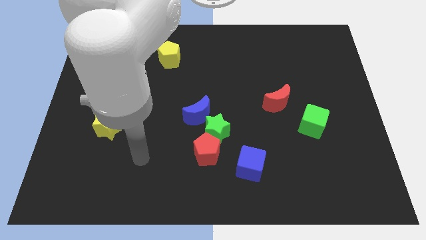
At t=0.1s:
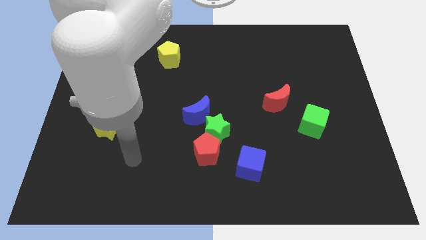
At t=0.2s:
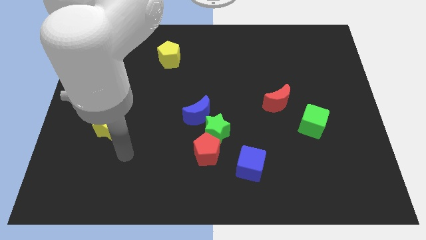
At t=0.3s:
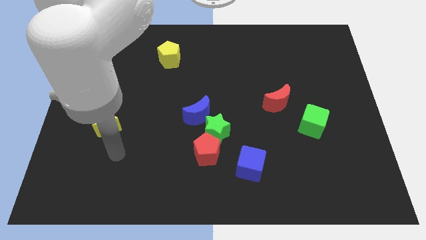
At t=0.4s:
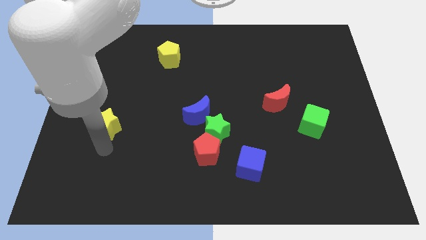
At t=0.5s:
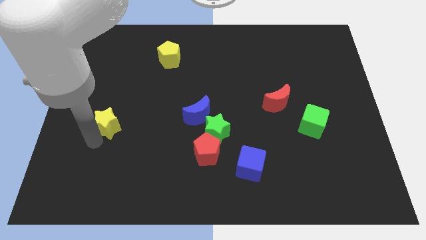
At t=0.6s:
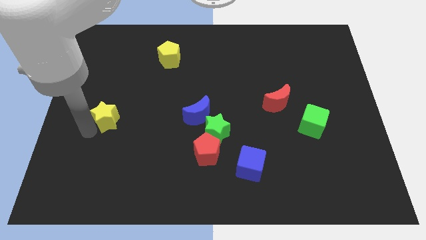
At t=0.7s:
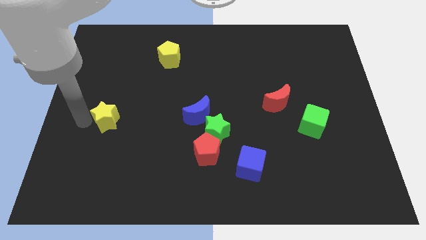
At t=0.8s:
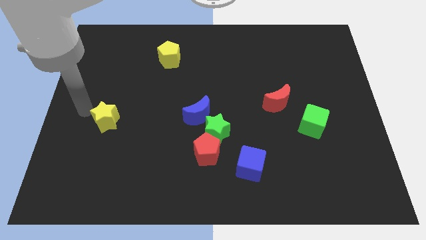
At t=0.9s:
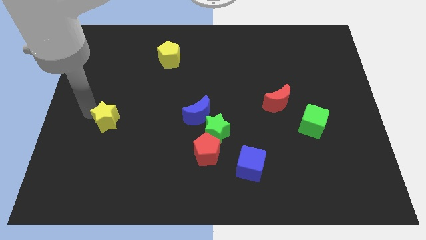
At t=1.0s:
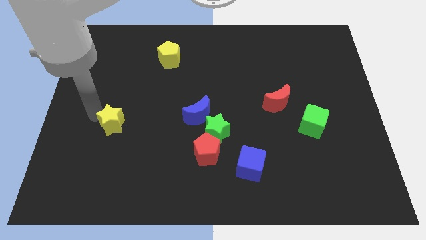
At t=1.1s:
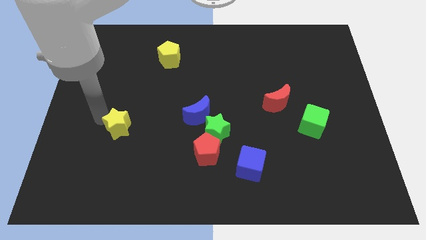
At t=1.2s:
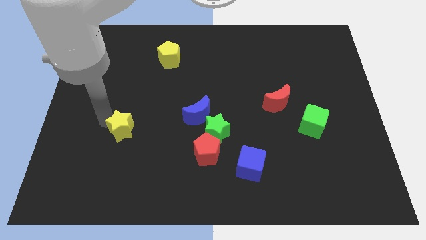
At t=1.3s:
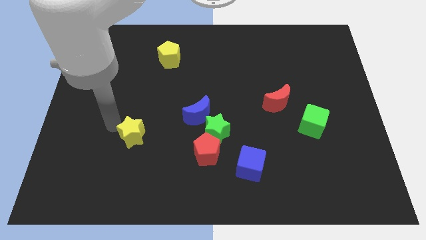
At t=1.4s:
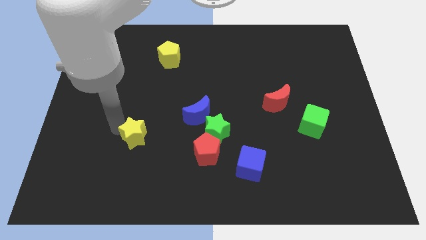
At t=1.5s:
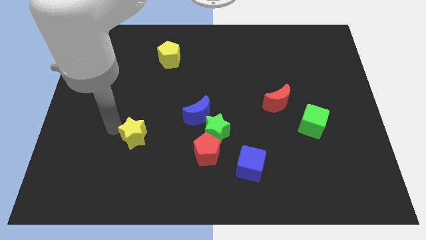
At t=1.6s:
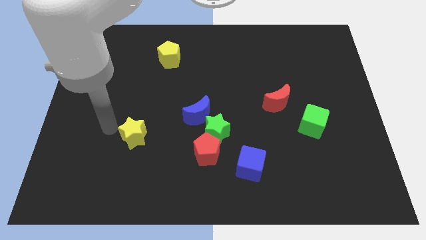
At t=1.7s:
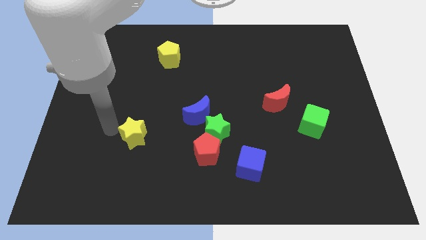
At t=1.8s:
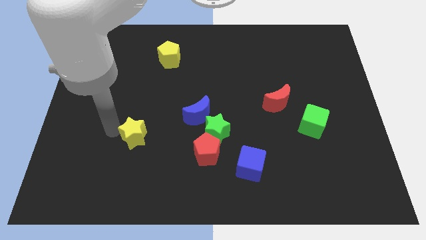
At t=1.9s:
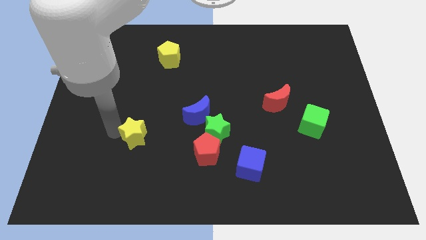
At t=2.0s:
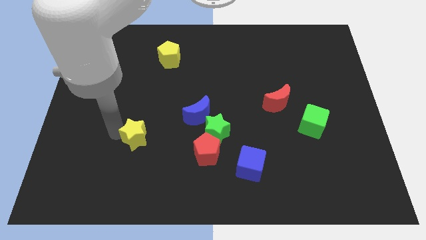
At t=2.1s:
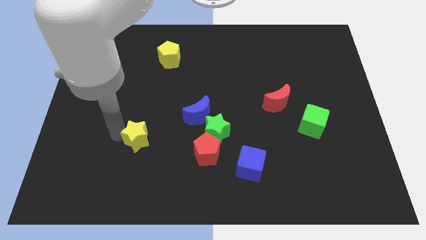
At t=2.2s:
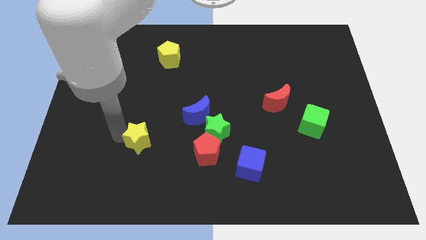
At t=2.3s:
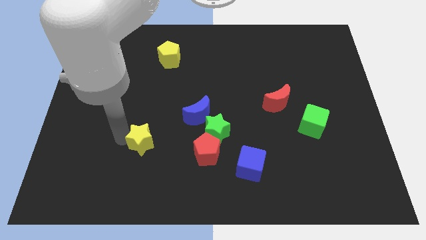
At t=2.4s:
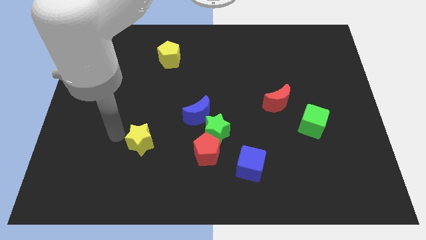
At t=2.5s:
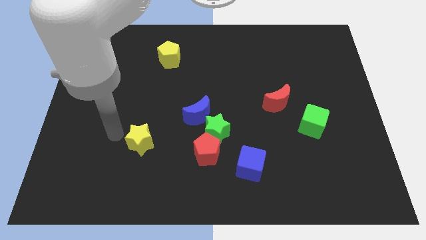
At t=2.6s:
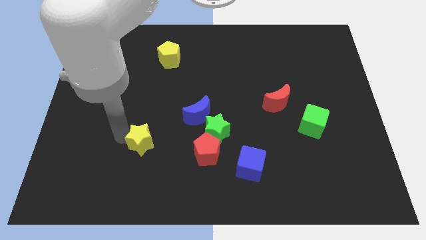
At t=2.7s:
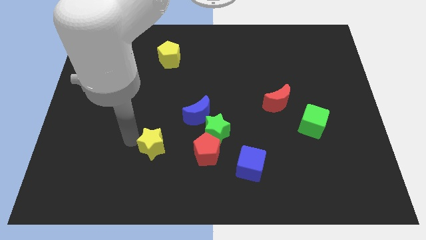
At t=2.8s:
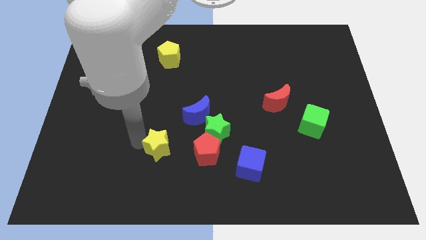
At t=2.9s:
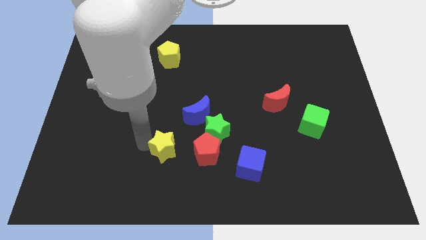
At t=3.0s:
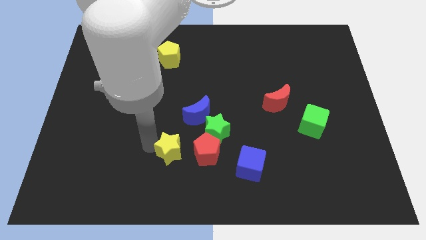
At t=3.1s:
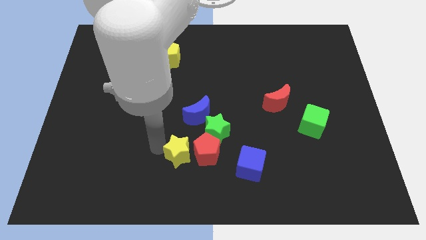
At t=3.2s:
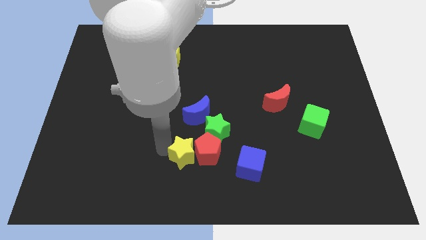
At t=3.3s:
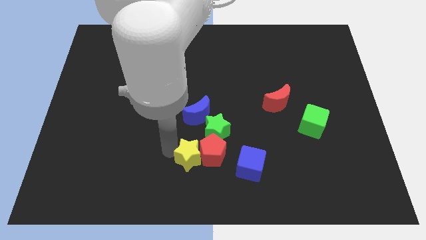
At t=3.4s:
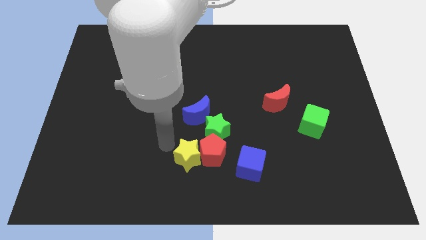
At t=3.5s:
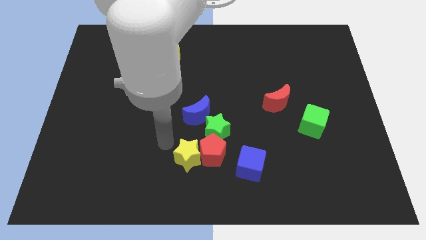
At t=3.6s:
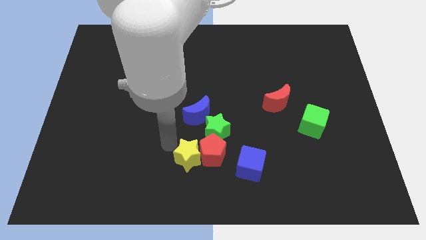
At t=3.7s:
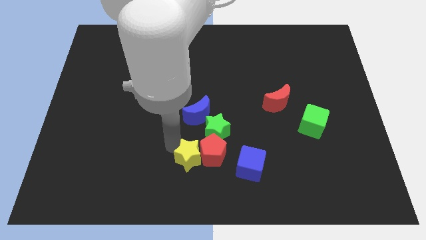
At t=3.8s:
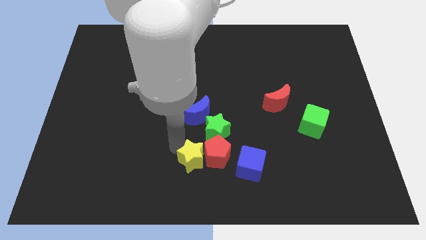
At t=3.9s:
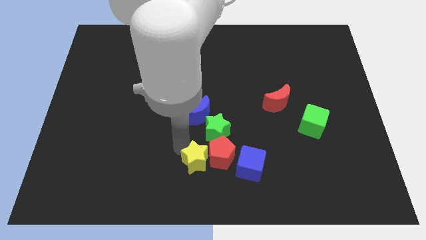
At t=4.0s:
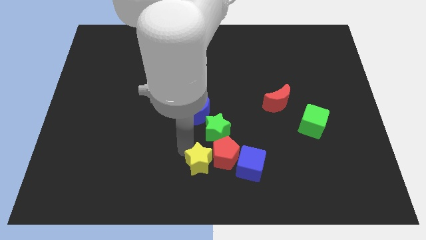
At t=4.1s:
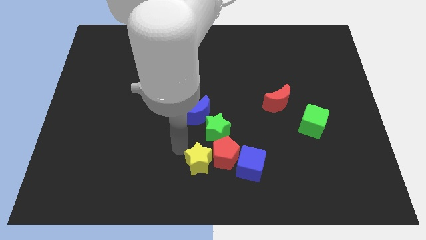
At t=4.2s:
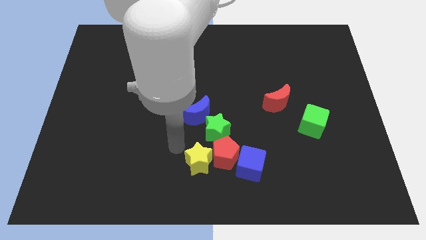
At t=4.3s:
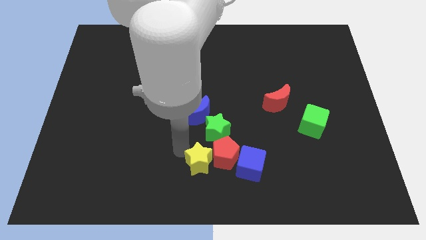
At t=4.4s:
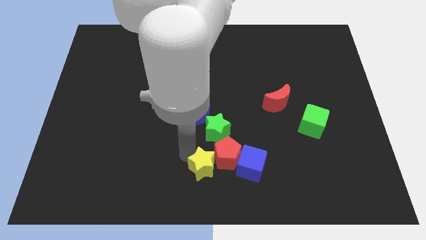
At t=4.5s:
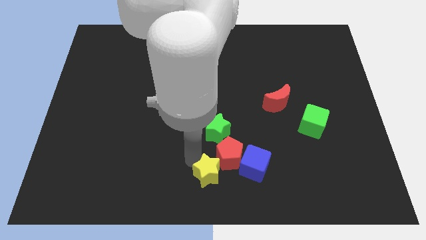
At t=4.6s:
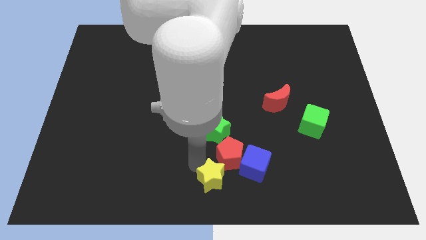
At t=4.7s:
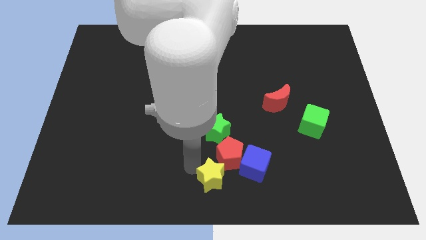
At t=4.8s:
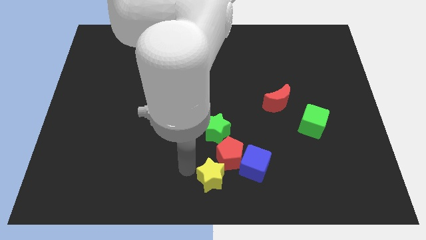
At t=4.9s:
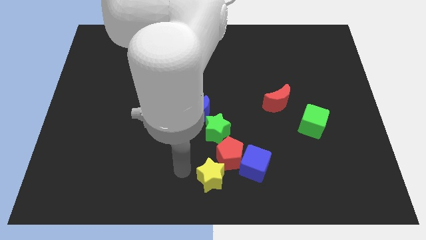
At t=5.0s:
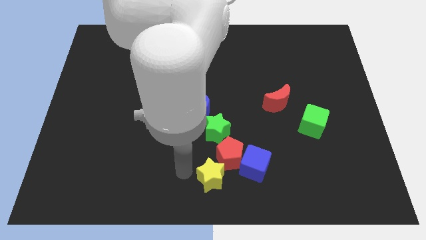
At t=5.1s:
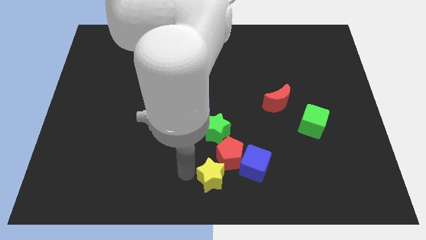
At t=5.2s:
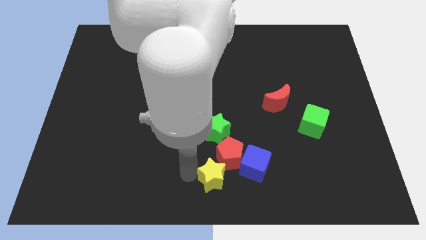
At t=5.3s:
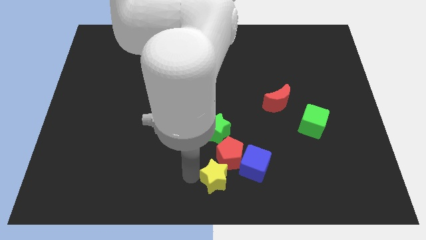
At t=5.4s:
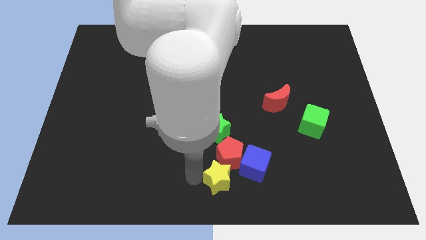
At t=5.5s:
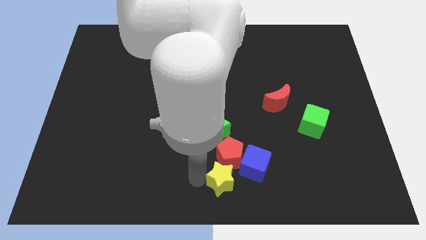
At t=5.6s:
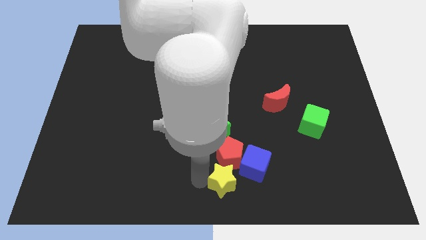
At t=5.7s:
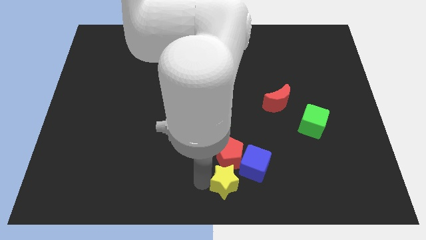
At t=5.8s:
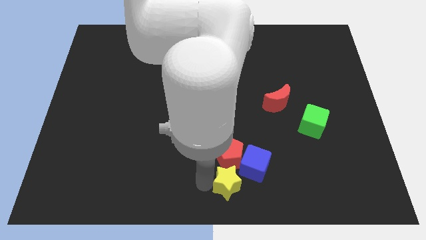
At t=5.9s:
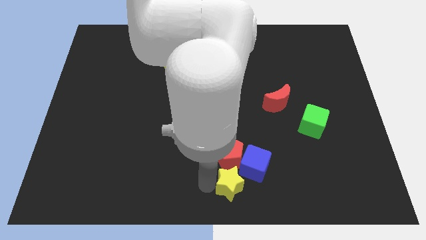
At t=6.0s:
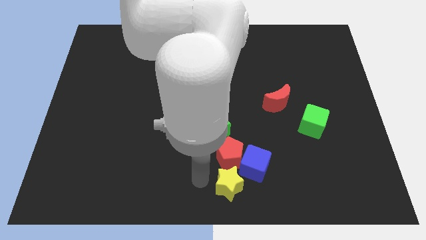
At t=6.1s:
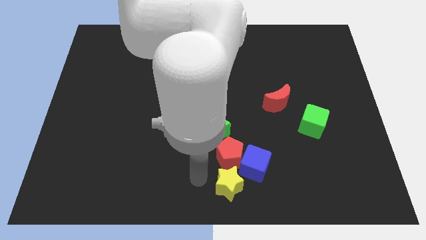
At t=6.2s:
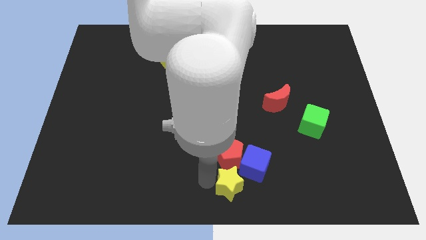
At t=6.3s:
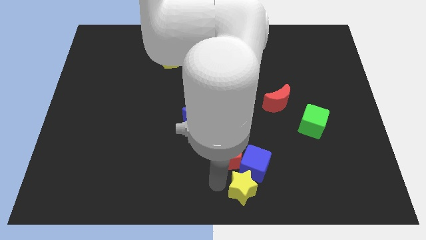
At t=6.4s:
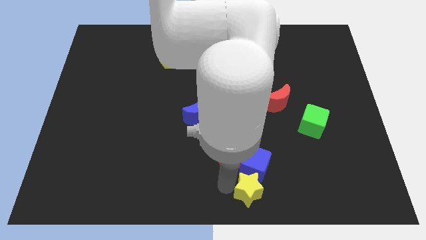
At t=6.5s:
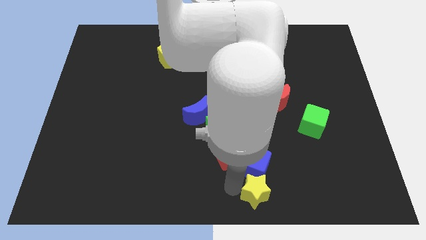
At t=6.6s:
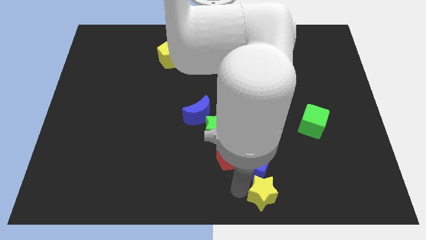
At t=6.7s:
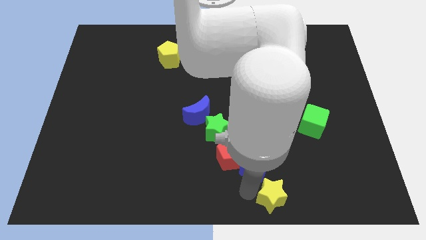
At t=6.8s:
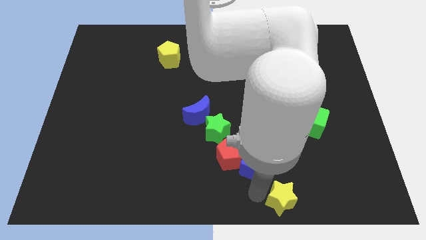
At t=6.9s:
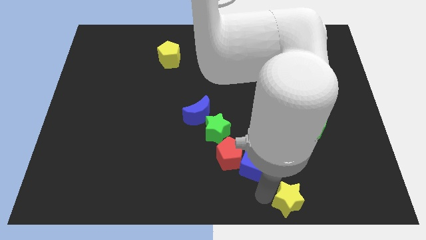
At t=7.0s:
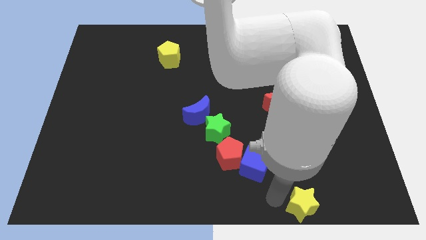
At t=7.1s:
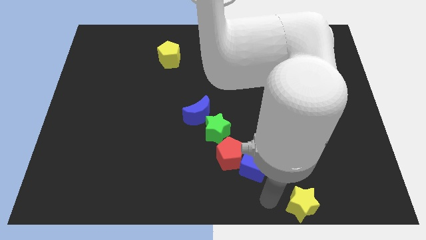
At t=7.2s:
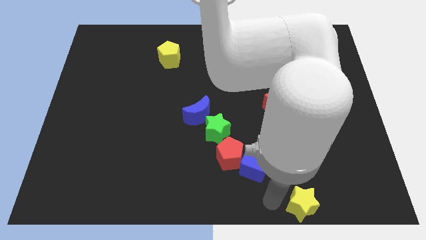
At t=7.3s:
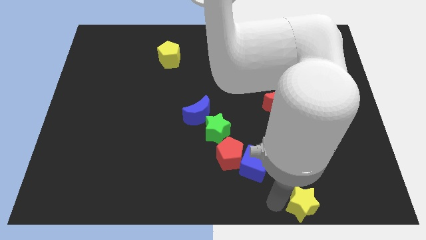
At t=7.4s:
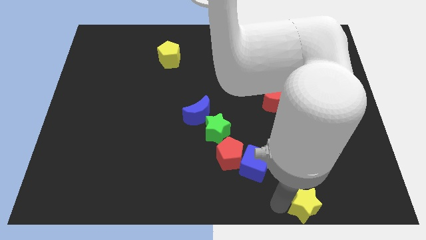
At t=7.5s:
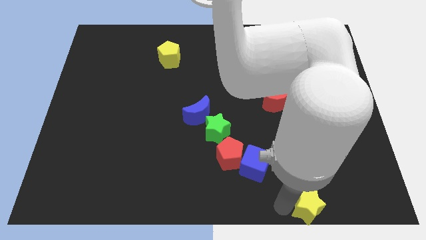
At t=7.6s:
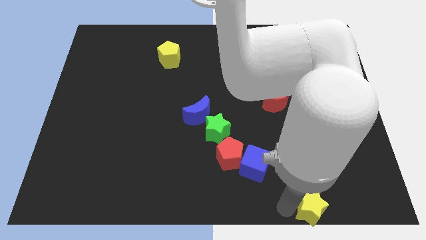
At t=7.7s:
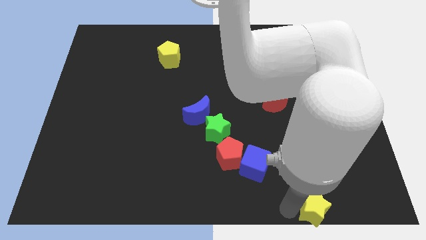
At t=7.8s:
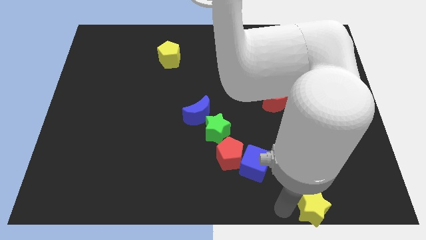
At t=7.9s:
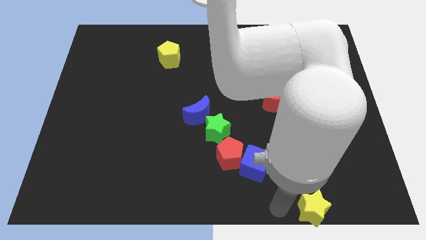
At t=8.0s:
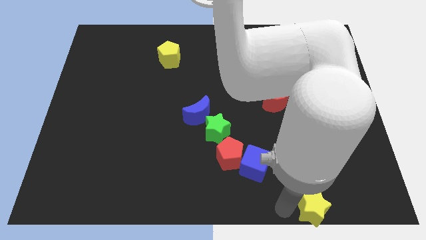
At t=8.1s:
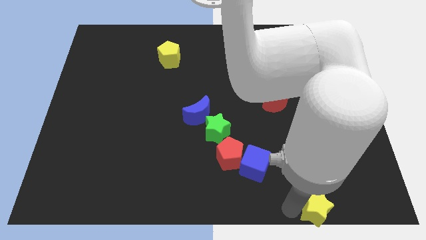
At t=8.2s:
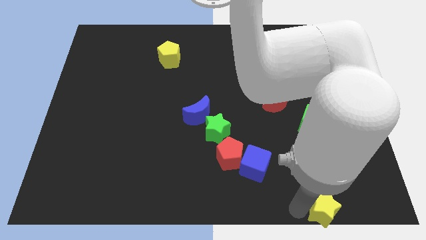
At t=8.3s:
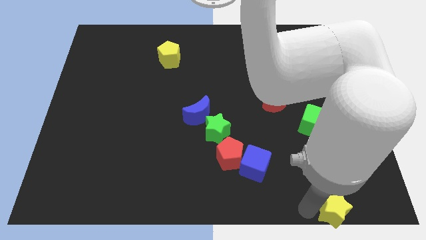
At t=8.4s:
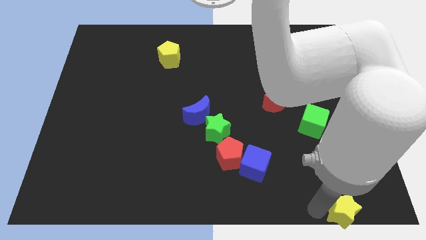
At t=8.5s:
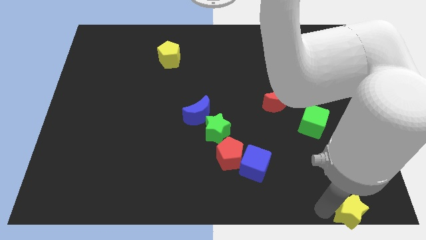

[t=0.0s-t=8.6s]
put the yellow star to the lower right corner
